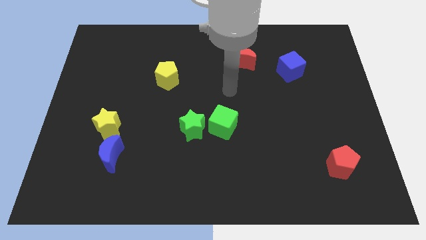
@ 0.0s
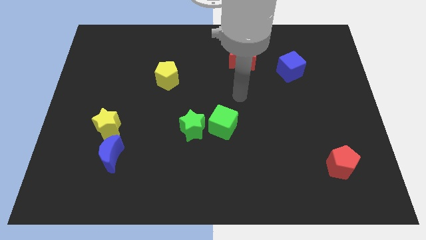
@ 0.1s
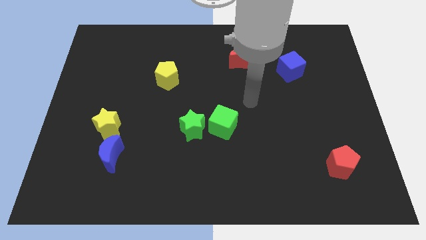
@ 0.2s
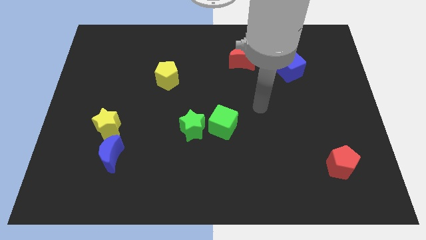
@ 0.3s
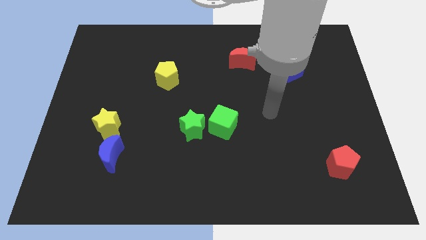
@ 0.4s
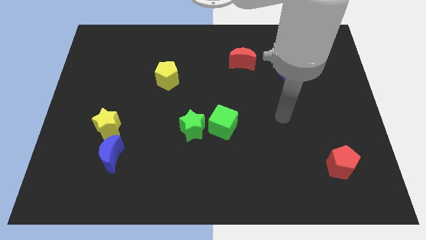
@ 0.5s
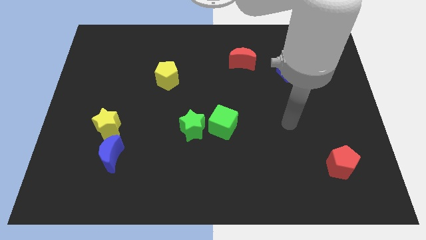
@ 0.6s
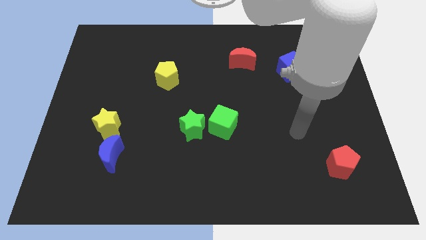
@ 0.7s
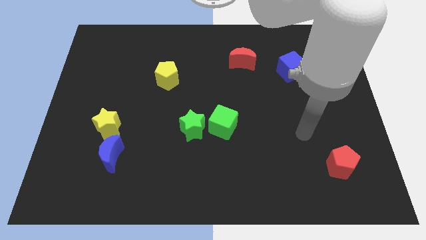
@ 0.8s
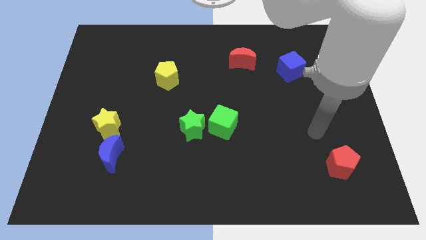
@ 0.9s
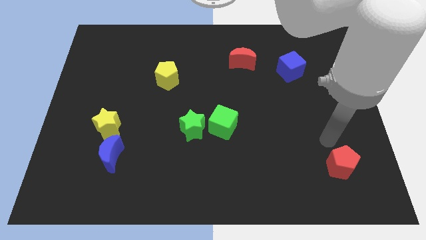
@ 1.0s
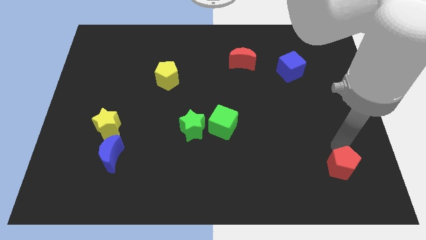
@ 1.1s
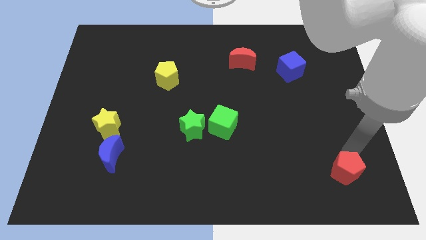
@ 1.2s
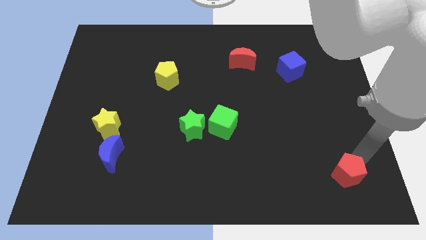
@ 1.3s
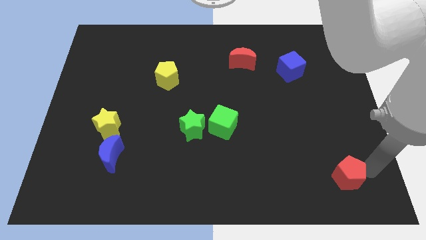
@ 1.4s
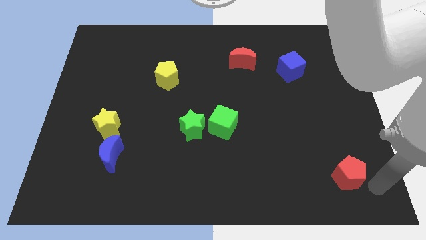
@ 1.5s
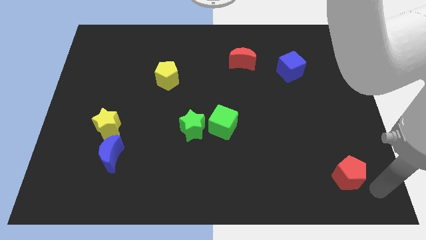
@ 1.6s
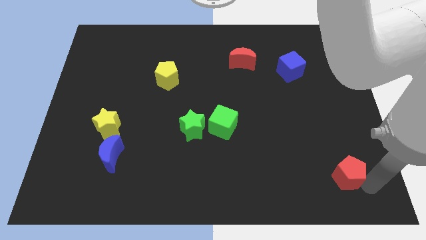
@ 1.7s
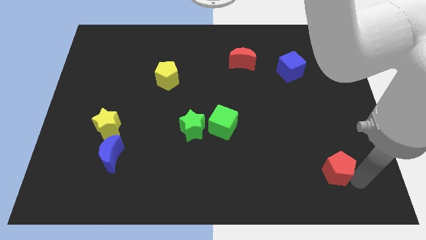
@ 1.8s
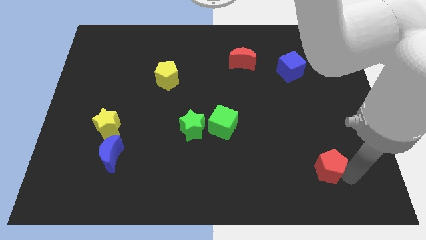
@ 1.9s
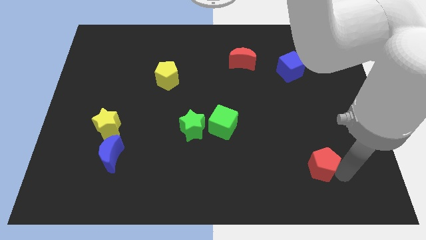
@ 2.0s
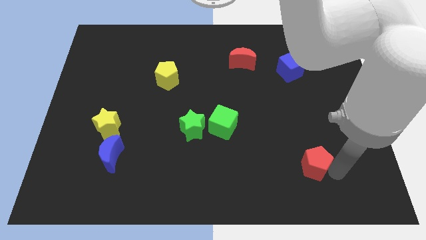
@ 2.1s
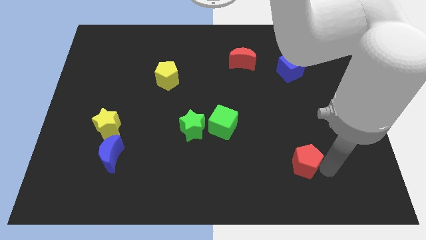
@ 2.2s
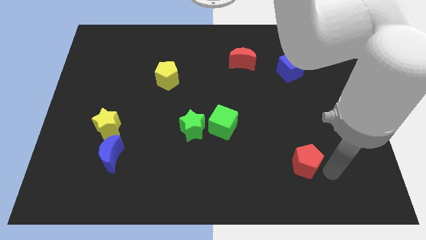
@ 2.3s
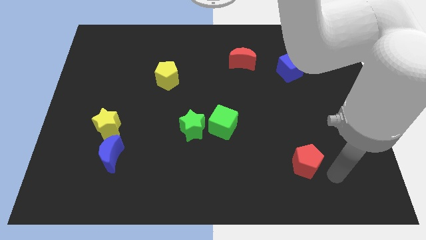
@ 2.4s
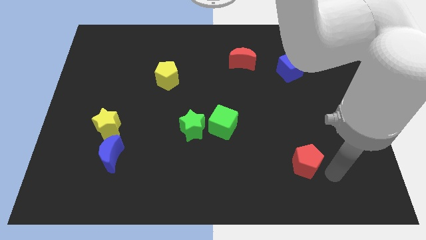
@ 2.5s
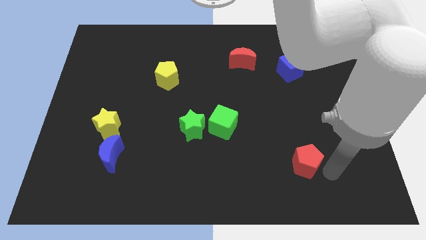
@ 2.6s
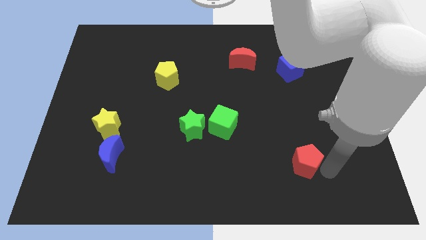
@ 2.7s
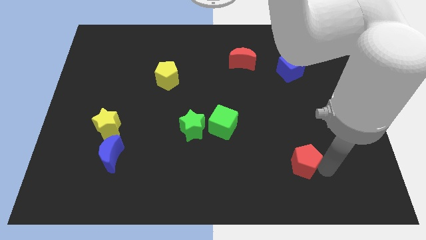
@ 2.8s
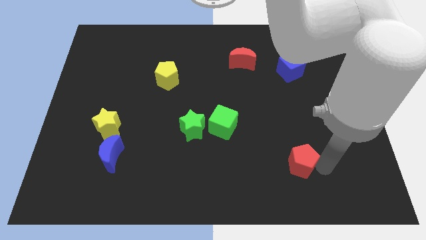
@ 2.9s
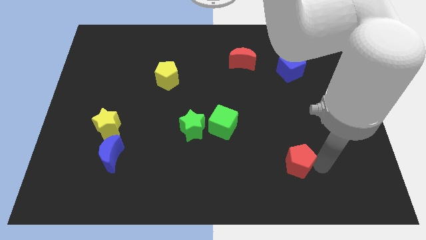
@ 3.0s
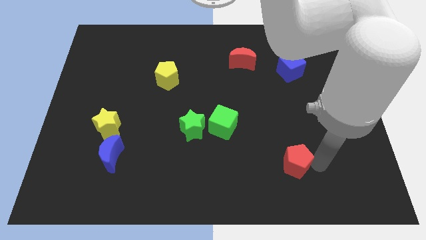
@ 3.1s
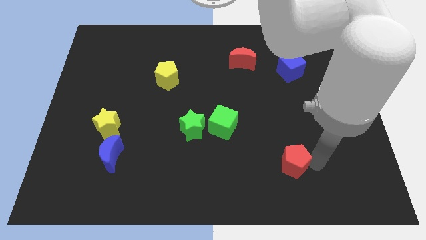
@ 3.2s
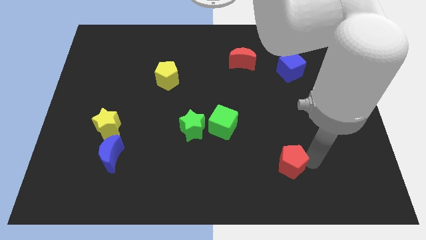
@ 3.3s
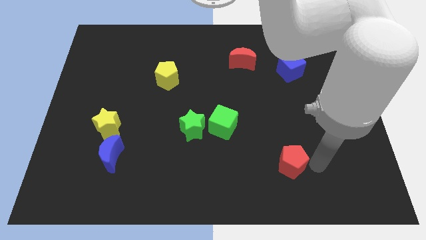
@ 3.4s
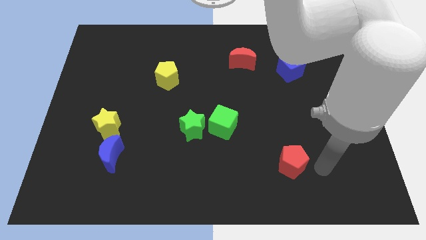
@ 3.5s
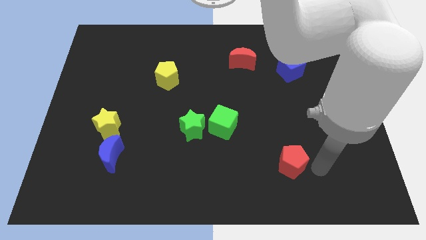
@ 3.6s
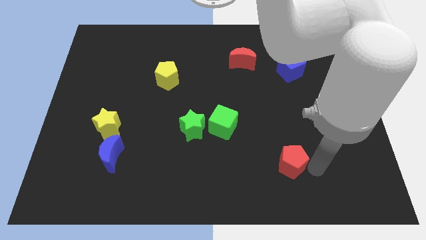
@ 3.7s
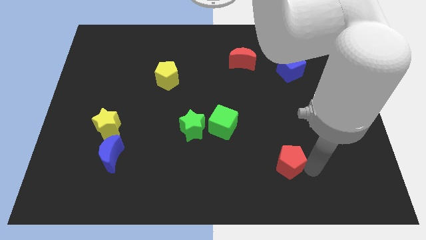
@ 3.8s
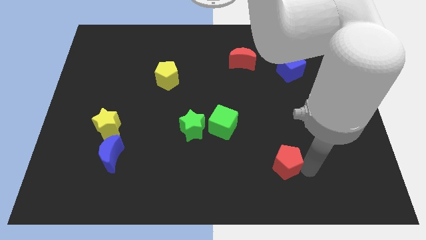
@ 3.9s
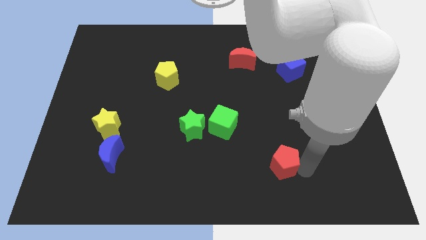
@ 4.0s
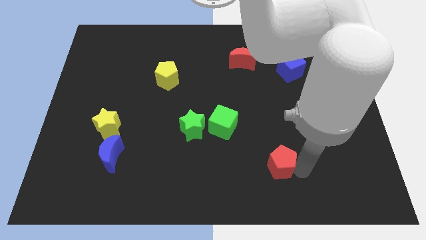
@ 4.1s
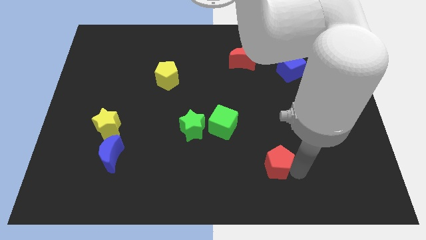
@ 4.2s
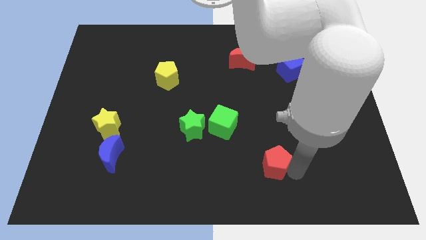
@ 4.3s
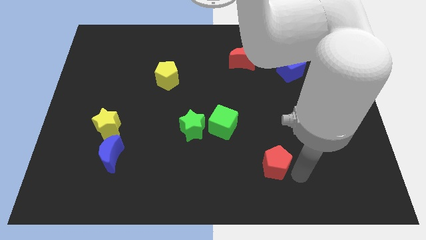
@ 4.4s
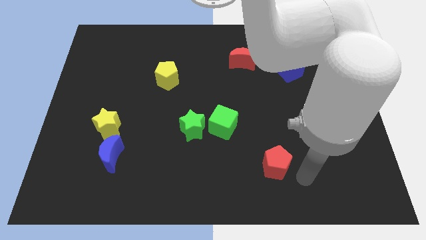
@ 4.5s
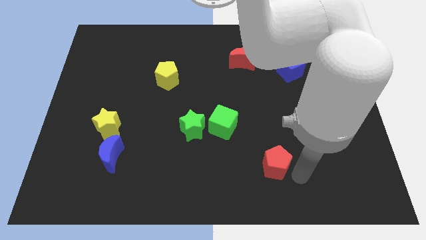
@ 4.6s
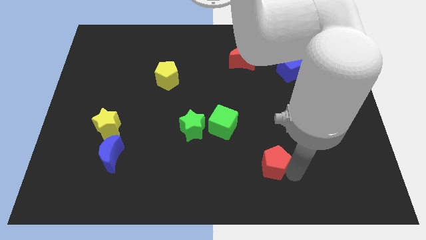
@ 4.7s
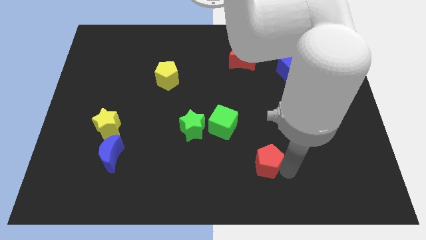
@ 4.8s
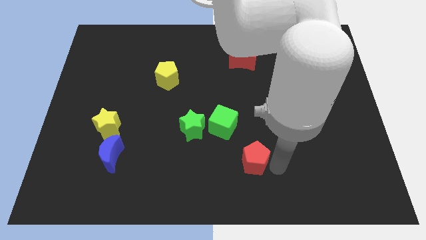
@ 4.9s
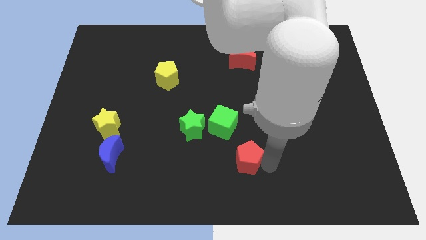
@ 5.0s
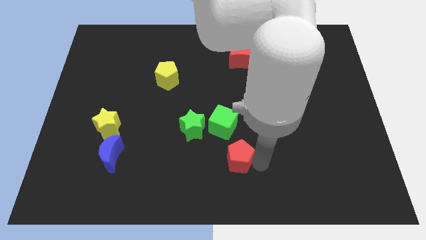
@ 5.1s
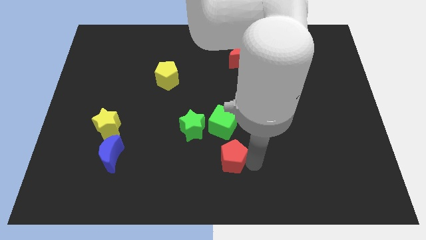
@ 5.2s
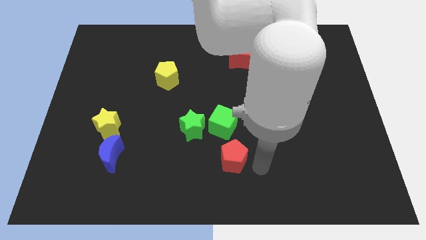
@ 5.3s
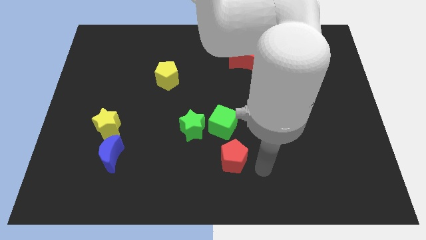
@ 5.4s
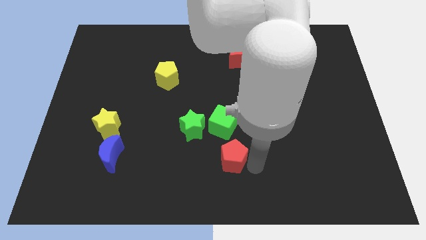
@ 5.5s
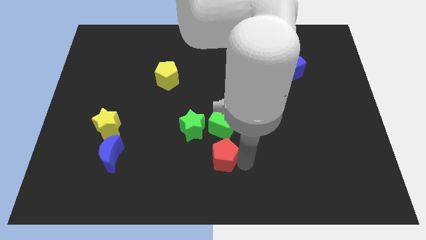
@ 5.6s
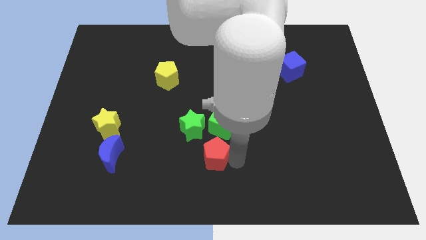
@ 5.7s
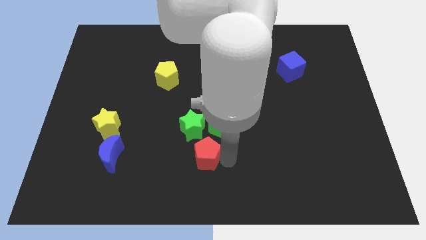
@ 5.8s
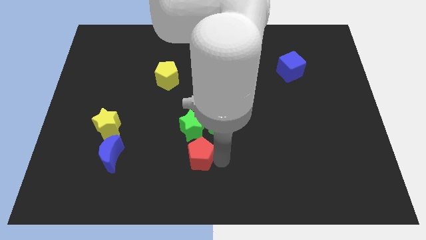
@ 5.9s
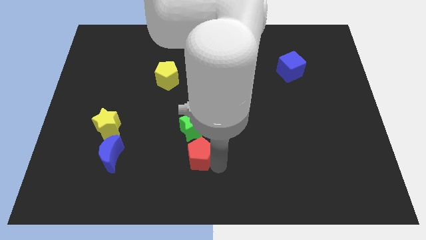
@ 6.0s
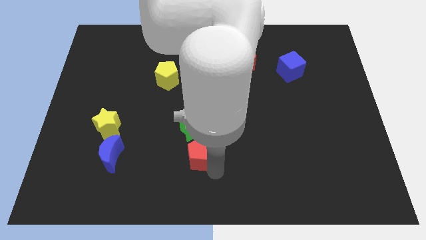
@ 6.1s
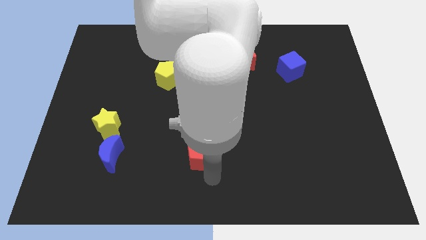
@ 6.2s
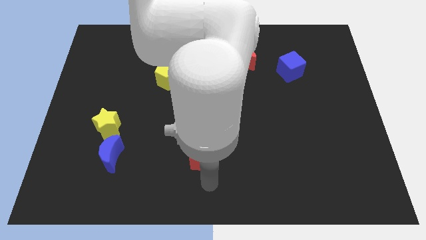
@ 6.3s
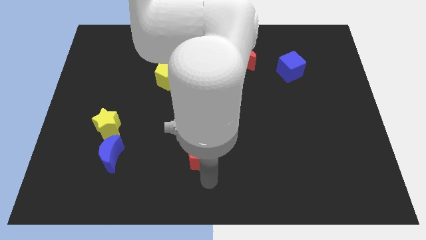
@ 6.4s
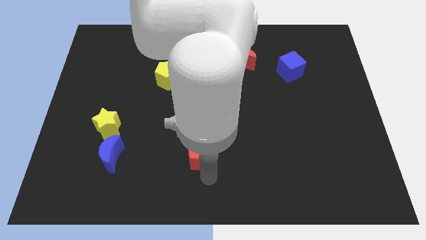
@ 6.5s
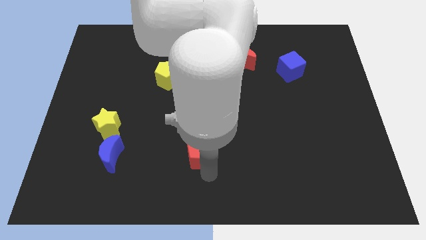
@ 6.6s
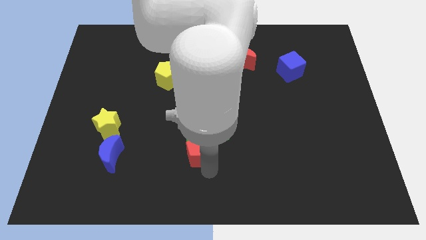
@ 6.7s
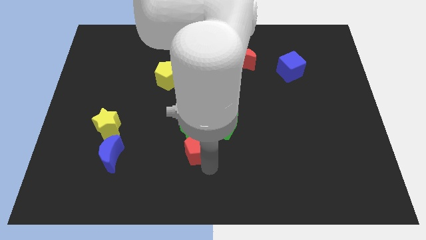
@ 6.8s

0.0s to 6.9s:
push the red pentagon to the green star
